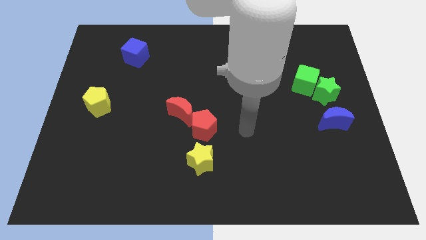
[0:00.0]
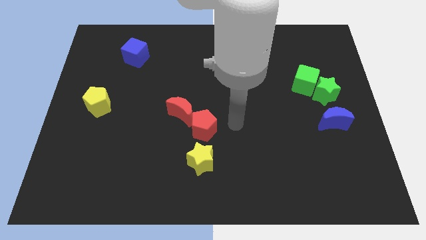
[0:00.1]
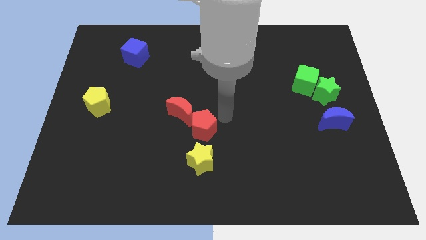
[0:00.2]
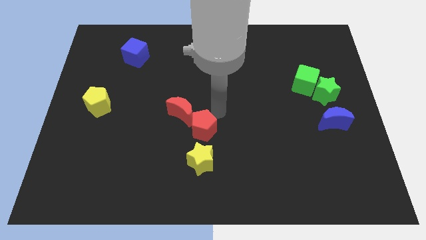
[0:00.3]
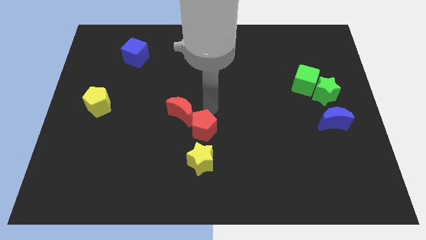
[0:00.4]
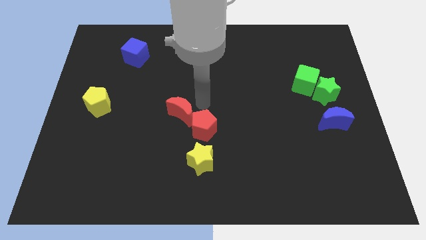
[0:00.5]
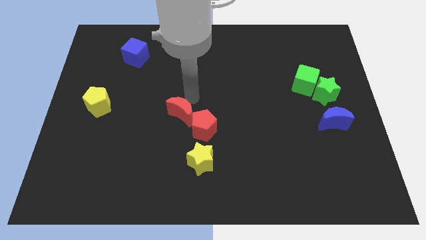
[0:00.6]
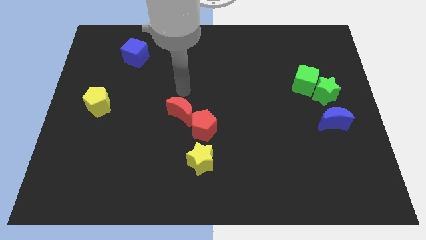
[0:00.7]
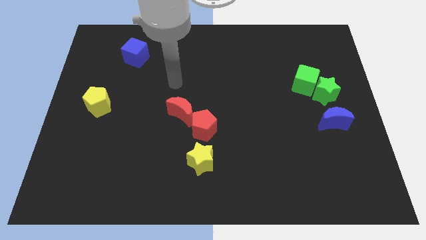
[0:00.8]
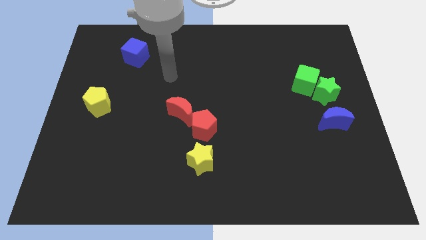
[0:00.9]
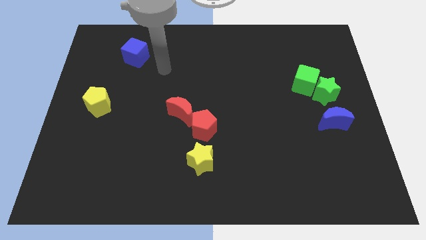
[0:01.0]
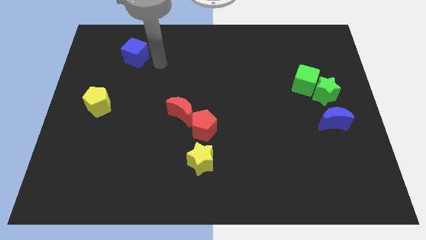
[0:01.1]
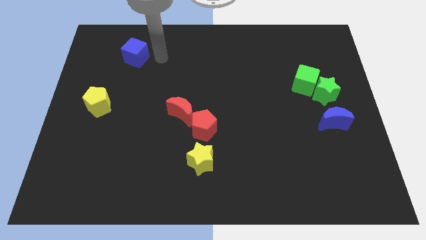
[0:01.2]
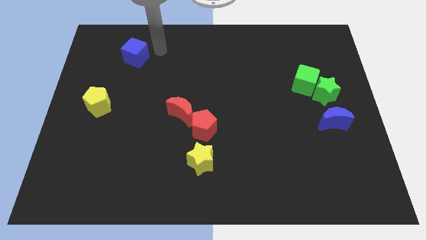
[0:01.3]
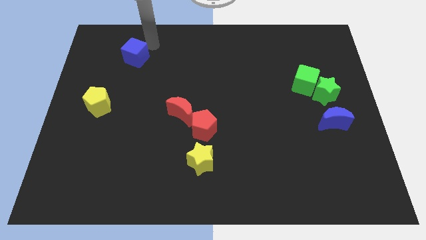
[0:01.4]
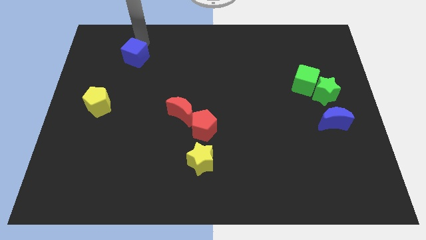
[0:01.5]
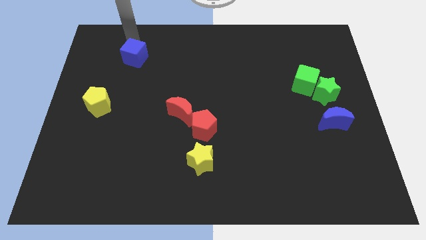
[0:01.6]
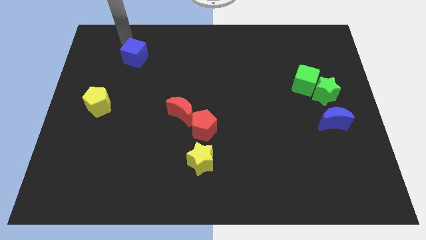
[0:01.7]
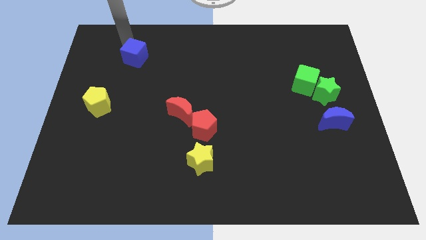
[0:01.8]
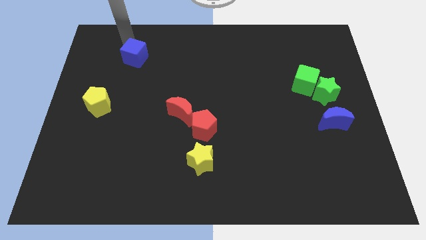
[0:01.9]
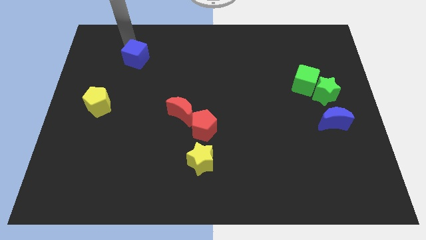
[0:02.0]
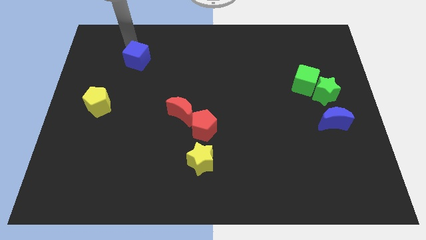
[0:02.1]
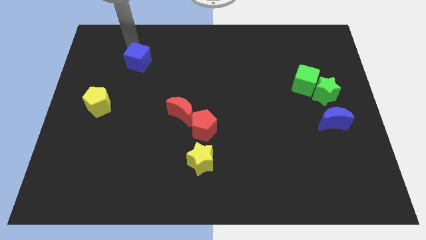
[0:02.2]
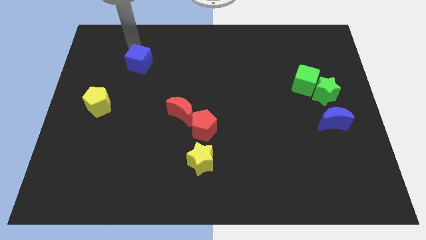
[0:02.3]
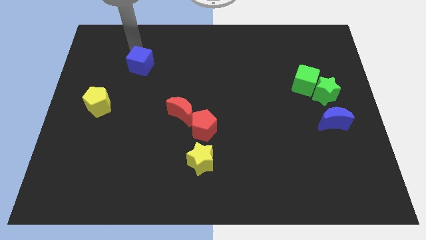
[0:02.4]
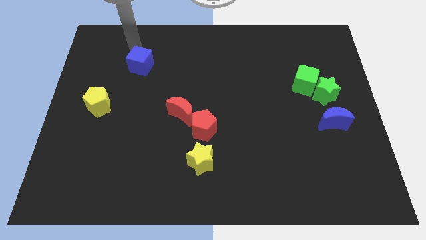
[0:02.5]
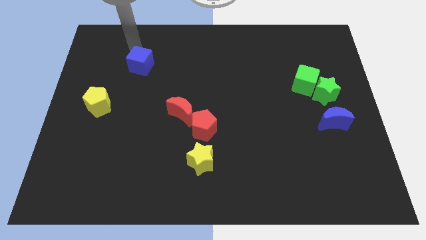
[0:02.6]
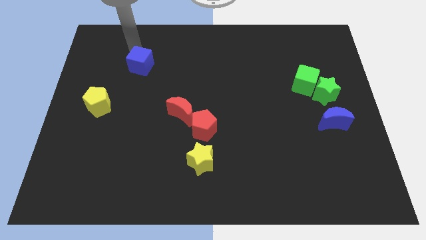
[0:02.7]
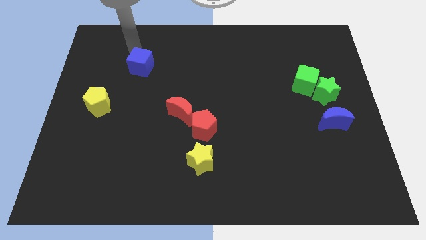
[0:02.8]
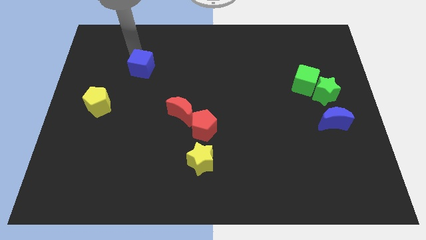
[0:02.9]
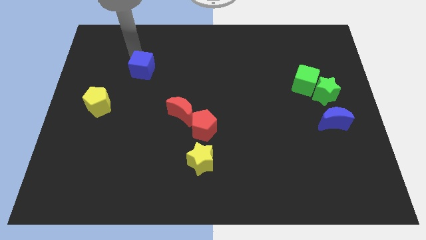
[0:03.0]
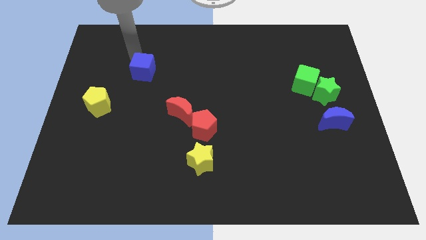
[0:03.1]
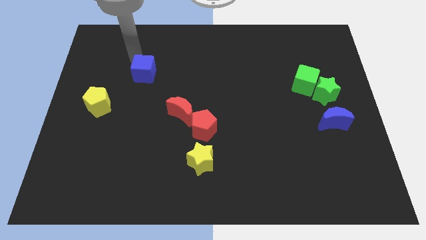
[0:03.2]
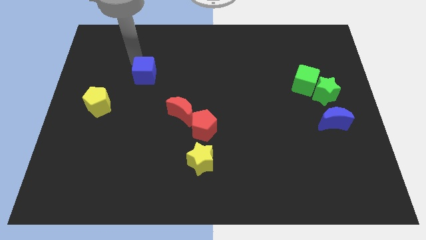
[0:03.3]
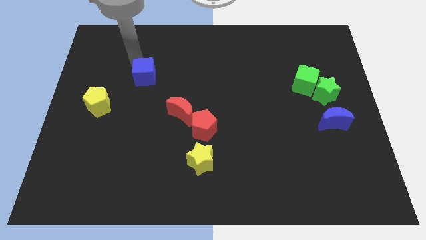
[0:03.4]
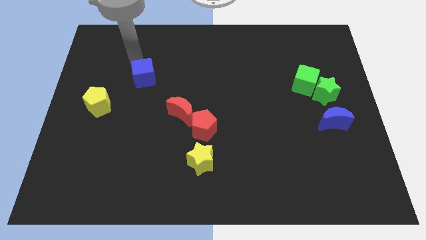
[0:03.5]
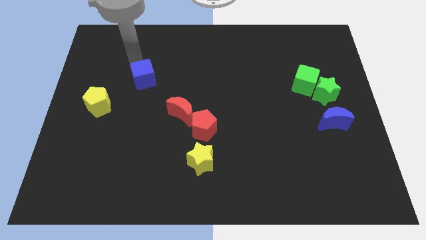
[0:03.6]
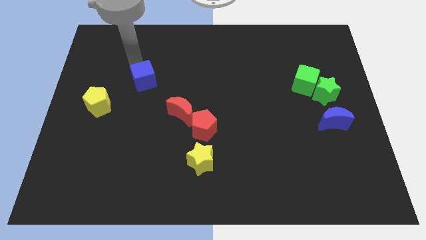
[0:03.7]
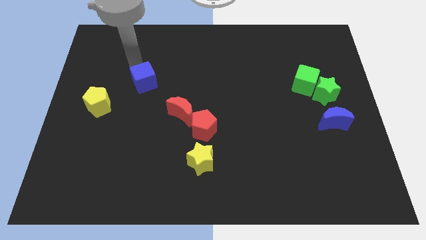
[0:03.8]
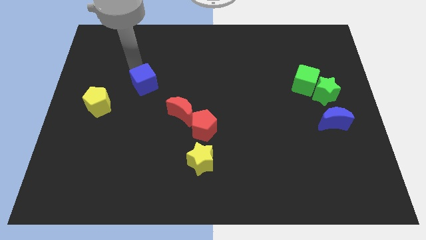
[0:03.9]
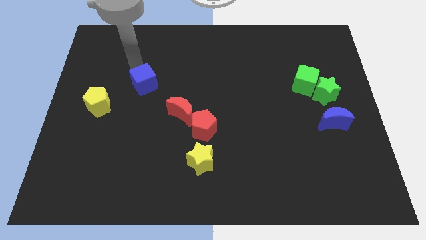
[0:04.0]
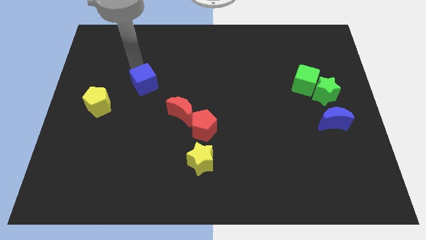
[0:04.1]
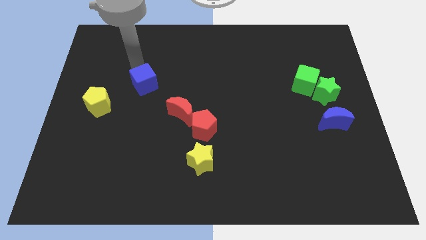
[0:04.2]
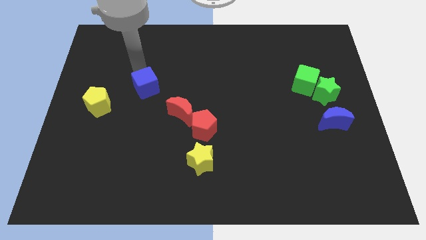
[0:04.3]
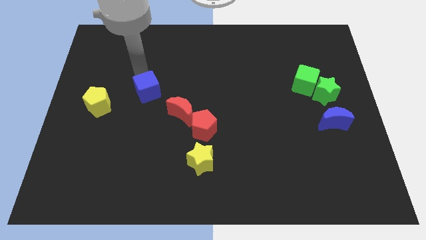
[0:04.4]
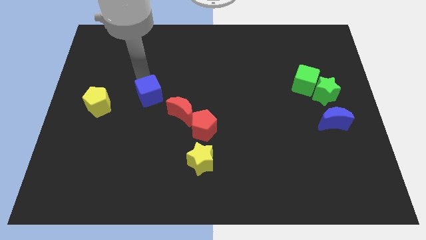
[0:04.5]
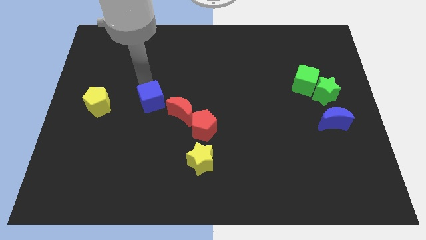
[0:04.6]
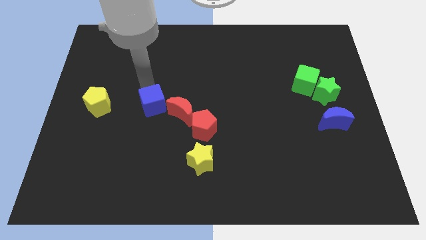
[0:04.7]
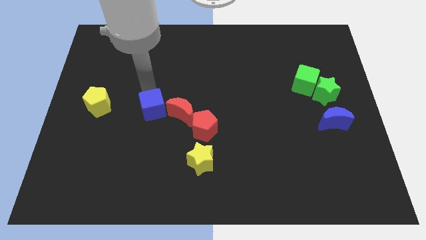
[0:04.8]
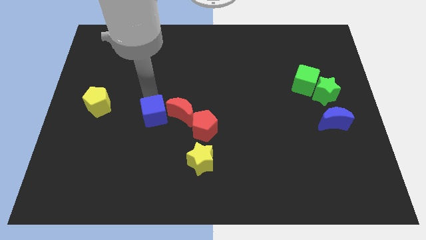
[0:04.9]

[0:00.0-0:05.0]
put the blue cube to the bottom left of the red moon

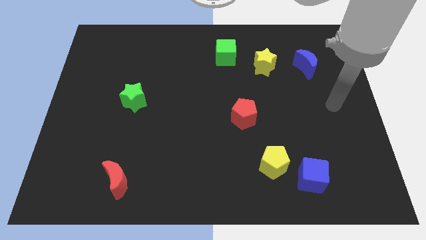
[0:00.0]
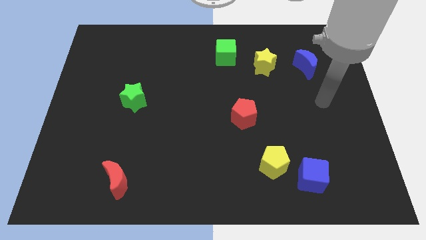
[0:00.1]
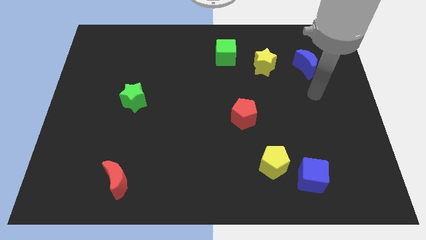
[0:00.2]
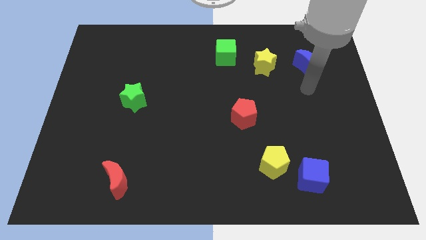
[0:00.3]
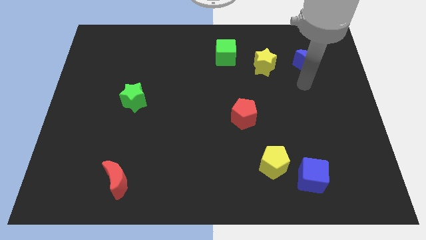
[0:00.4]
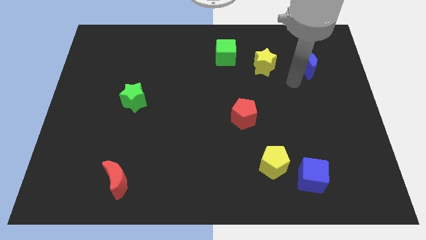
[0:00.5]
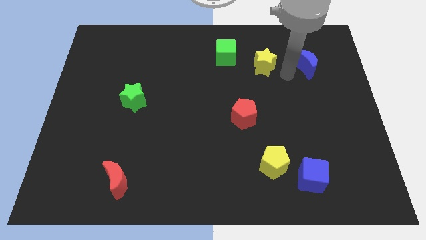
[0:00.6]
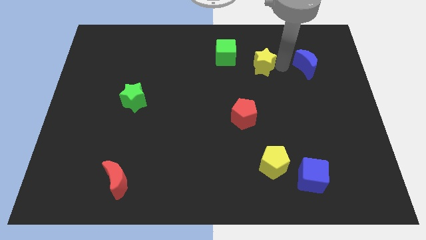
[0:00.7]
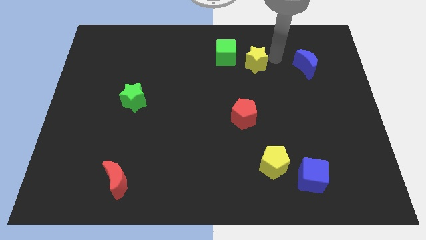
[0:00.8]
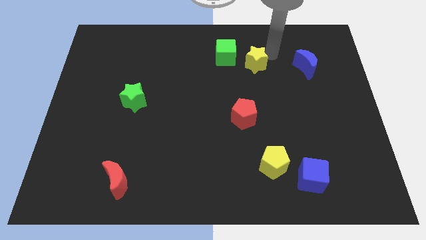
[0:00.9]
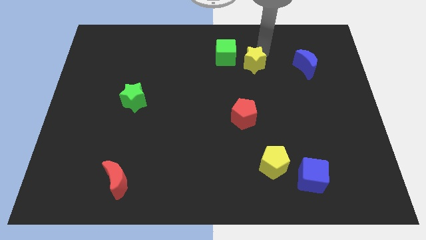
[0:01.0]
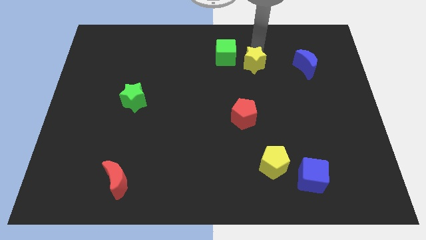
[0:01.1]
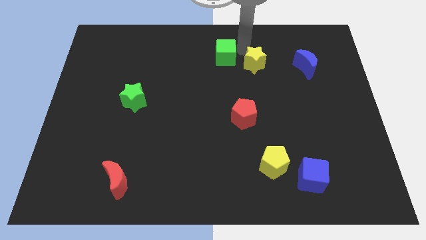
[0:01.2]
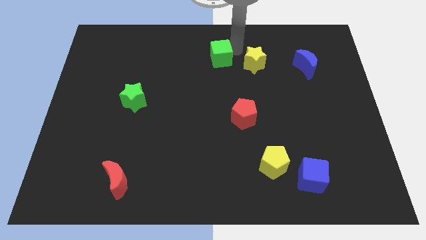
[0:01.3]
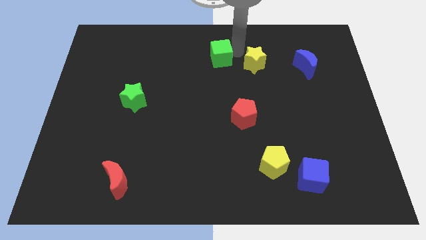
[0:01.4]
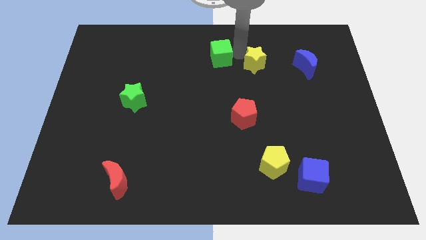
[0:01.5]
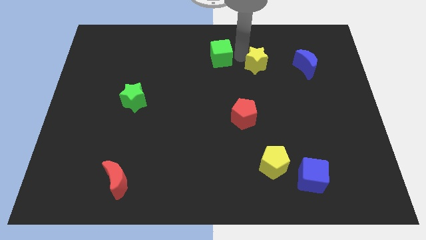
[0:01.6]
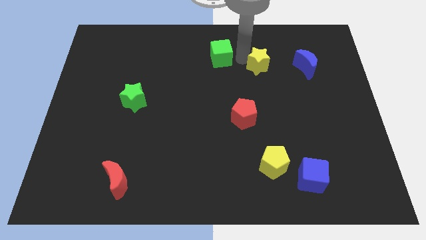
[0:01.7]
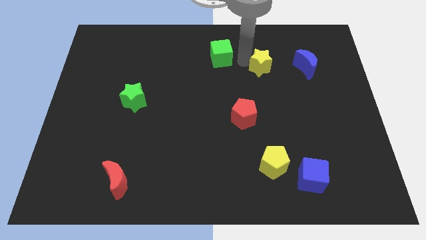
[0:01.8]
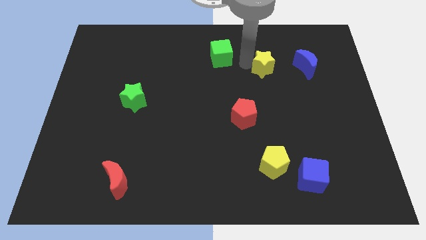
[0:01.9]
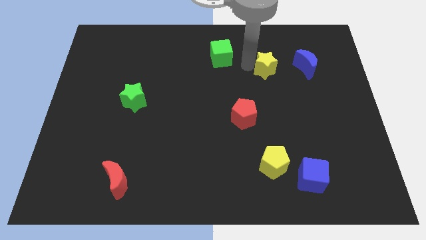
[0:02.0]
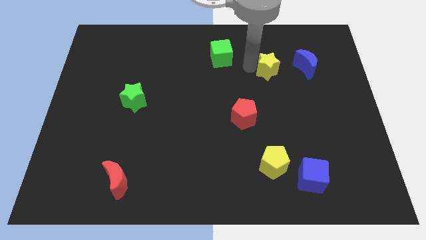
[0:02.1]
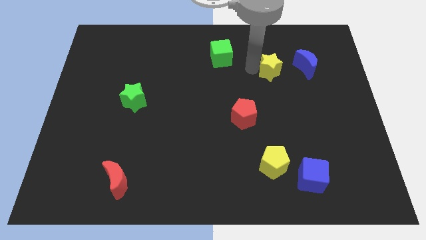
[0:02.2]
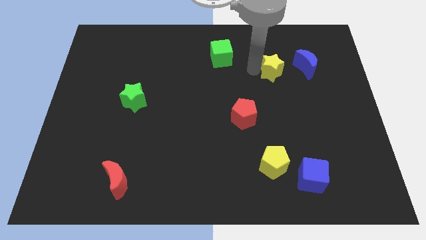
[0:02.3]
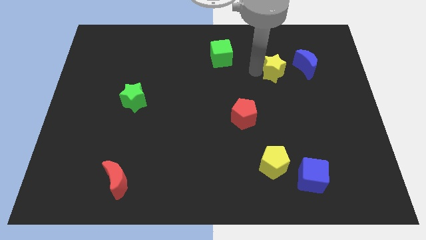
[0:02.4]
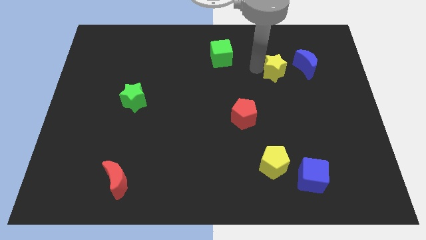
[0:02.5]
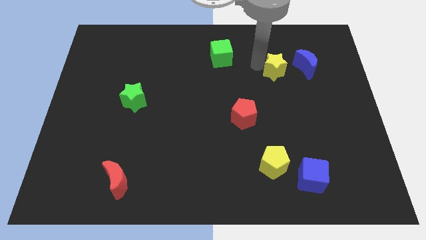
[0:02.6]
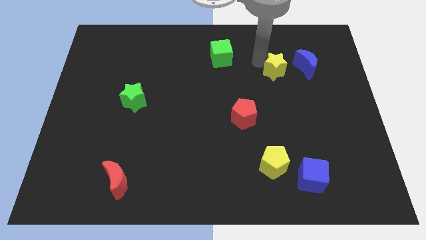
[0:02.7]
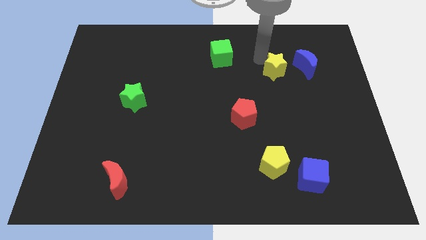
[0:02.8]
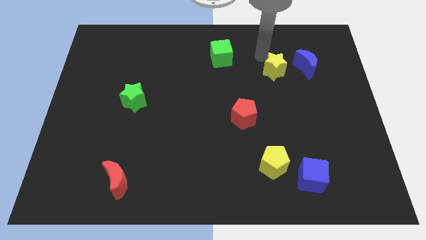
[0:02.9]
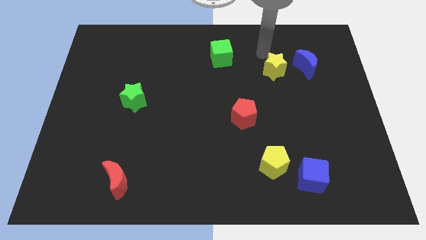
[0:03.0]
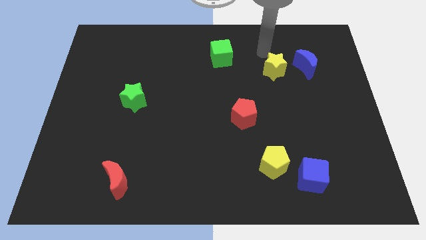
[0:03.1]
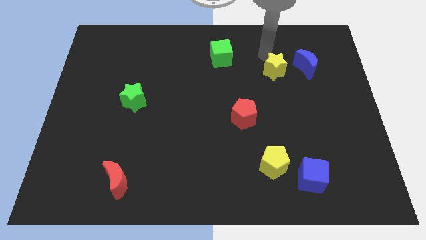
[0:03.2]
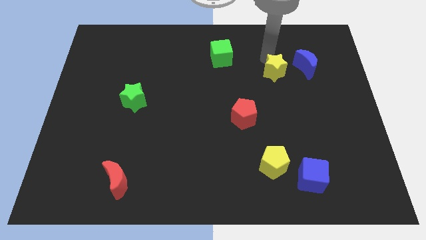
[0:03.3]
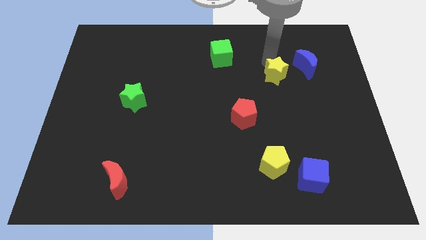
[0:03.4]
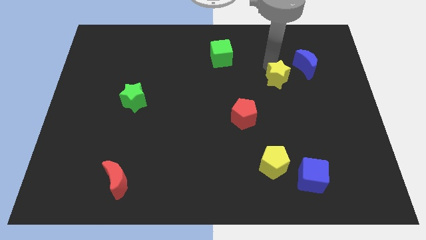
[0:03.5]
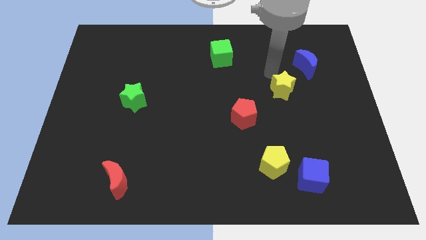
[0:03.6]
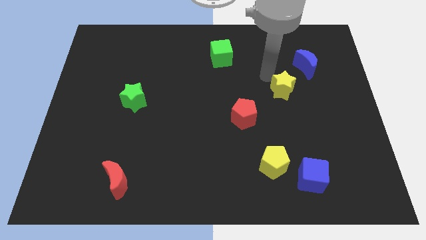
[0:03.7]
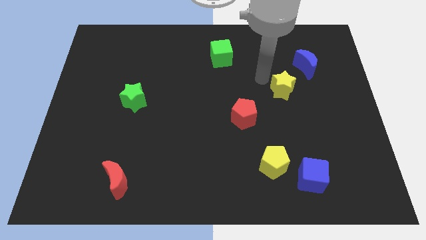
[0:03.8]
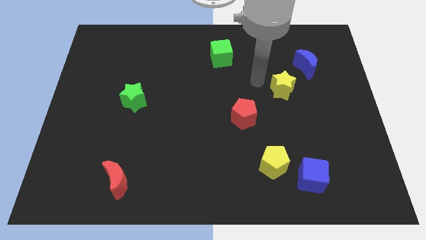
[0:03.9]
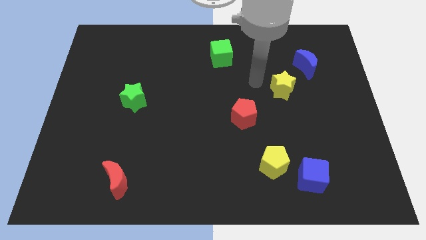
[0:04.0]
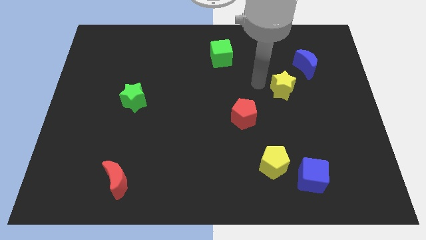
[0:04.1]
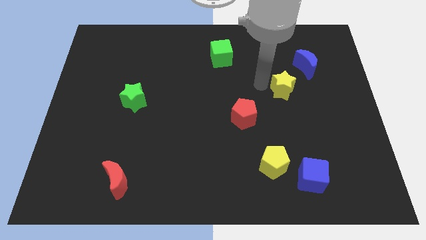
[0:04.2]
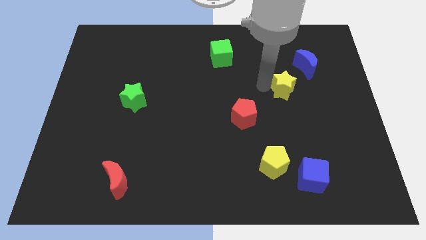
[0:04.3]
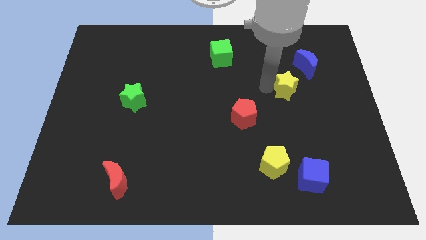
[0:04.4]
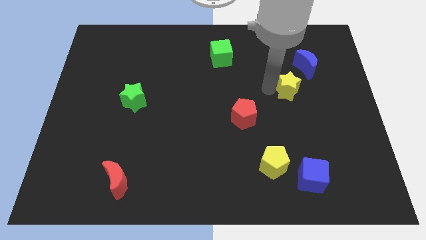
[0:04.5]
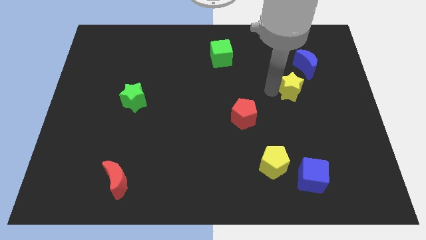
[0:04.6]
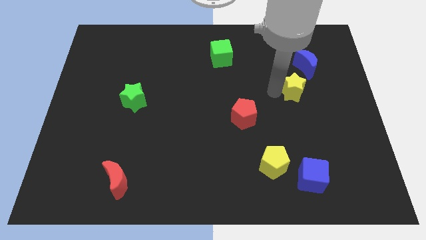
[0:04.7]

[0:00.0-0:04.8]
put the yellow star to the bottom of the blue moon
